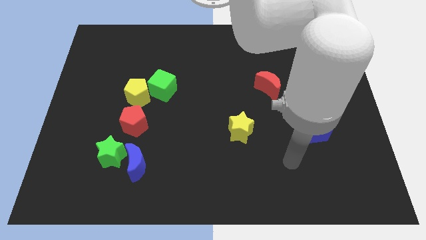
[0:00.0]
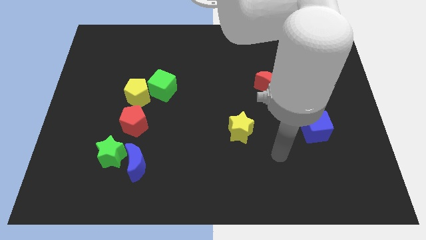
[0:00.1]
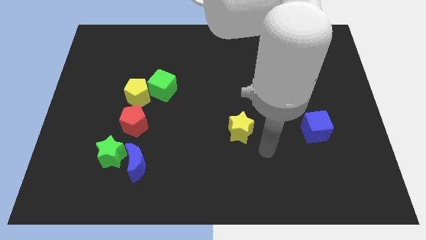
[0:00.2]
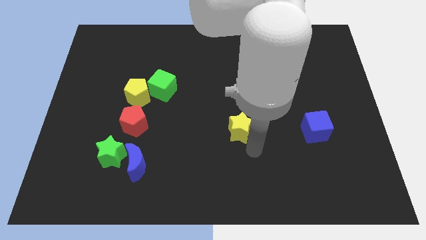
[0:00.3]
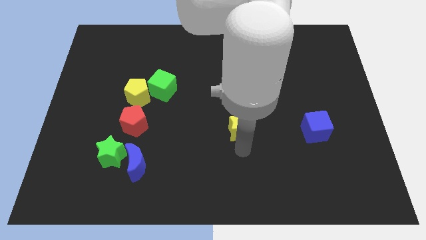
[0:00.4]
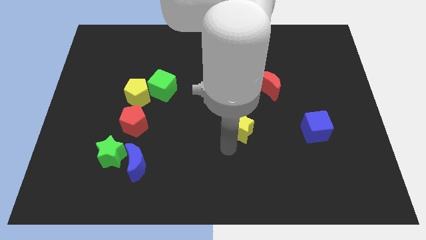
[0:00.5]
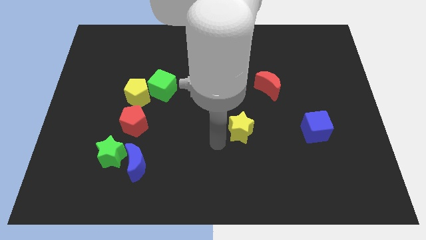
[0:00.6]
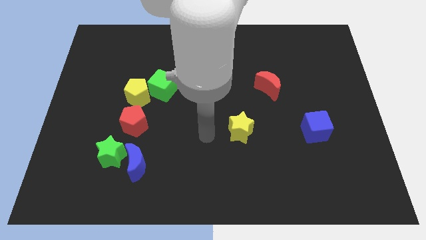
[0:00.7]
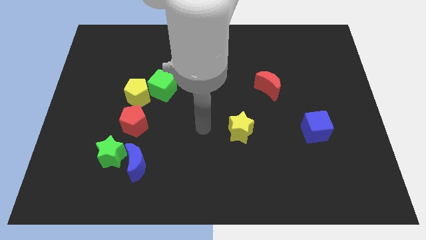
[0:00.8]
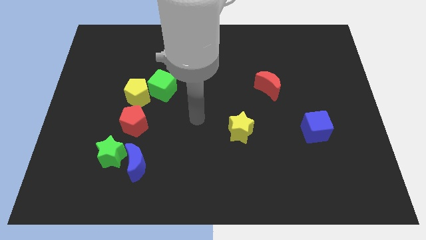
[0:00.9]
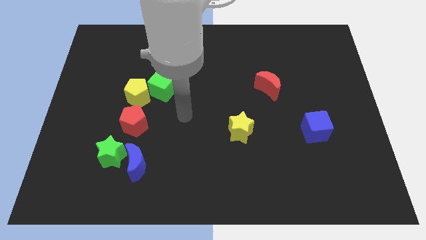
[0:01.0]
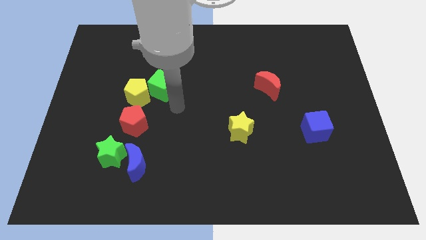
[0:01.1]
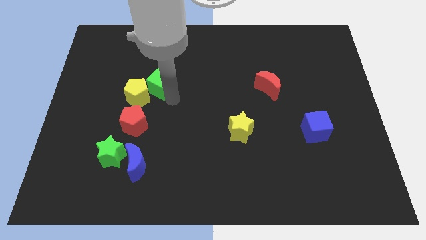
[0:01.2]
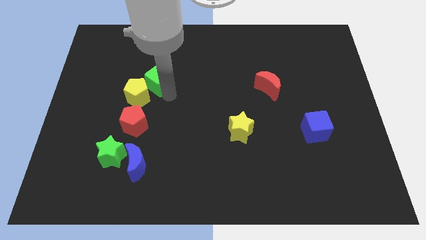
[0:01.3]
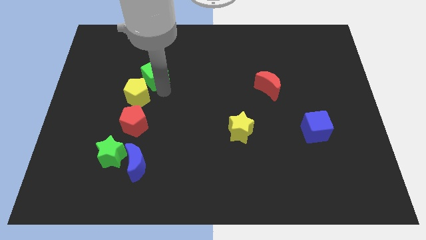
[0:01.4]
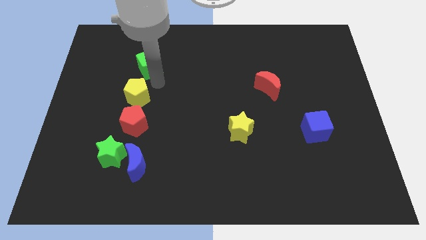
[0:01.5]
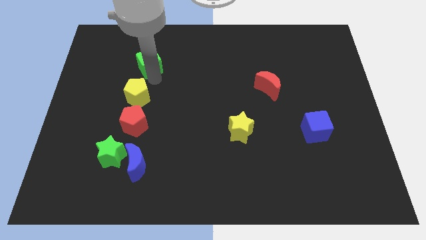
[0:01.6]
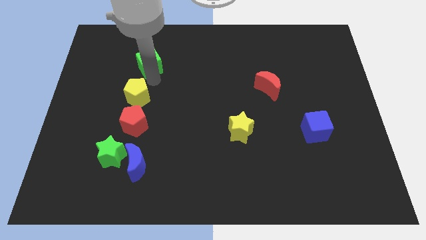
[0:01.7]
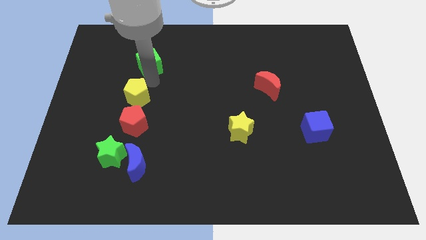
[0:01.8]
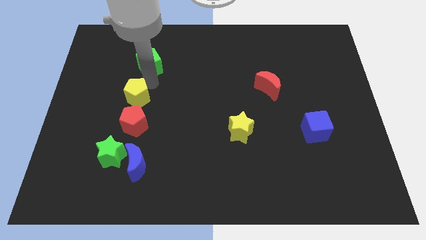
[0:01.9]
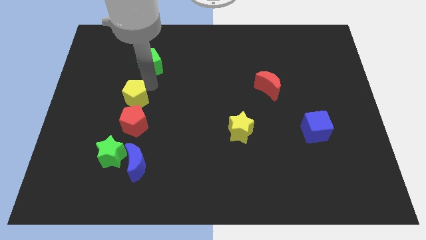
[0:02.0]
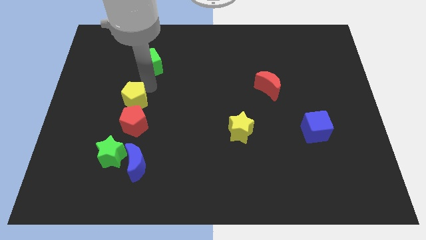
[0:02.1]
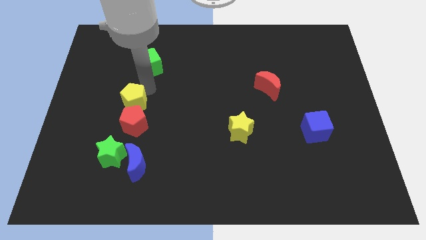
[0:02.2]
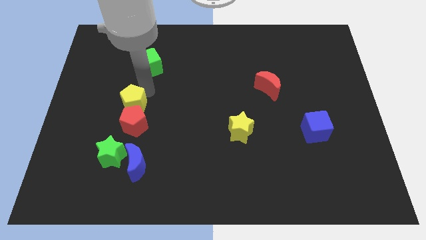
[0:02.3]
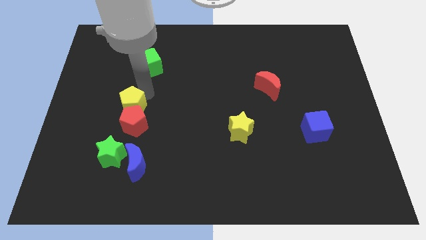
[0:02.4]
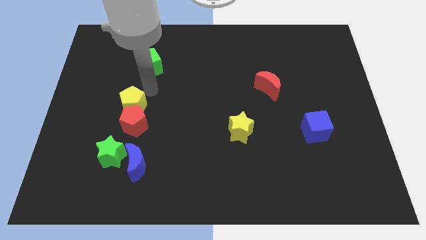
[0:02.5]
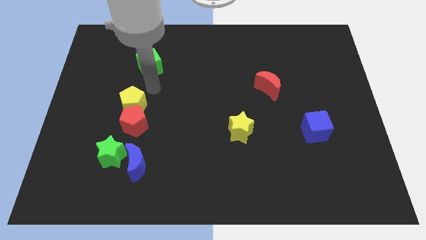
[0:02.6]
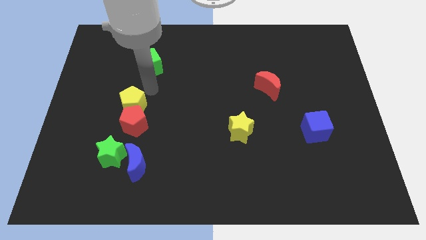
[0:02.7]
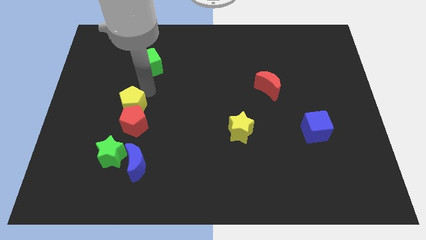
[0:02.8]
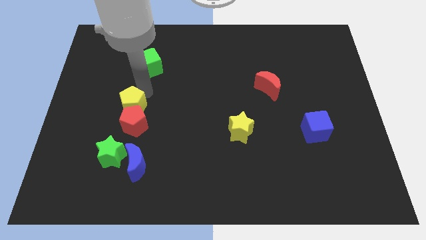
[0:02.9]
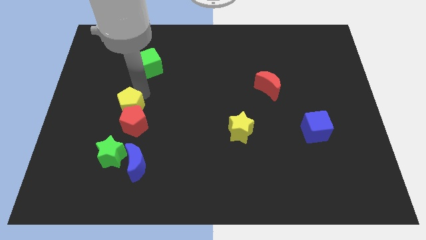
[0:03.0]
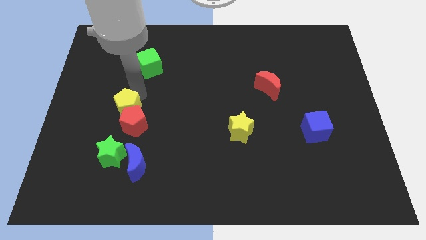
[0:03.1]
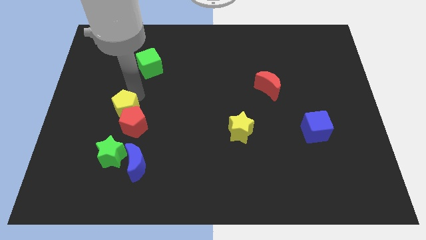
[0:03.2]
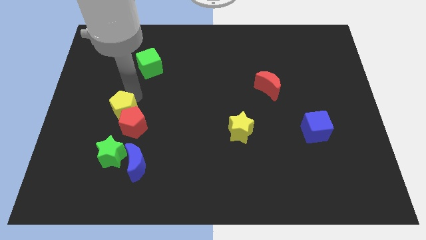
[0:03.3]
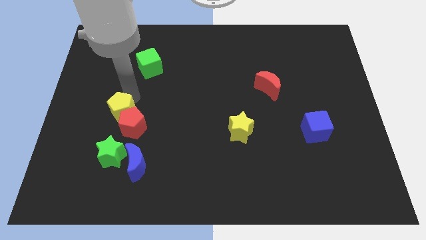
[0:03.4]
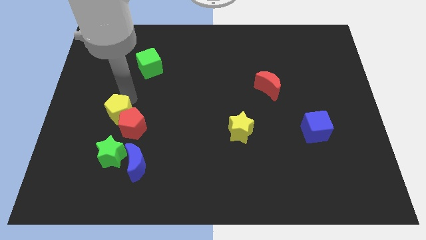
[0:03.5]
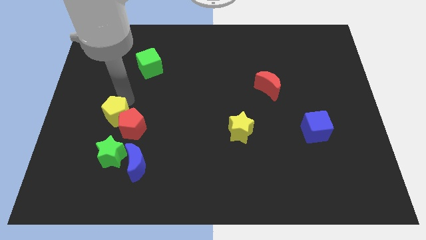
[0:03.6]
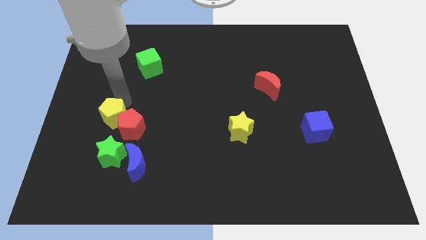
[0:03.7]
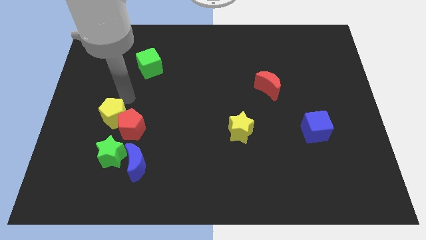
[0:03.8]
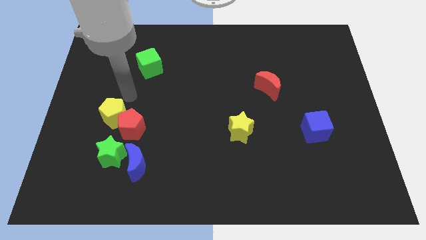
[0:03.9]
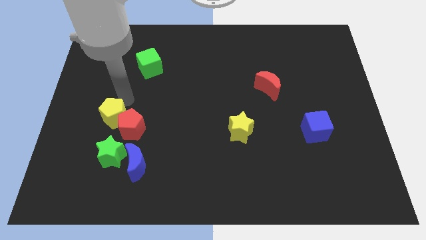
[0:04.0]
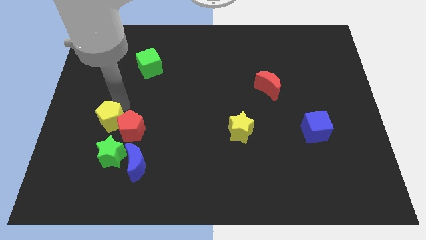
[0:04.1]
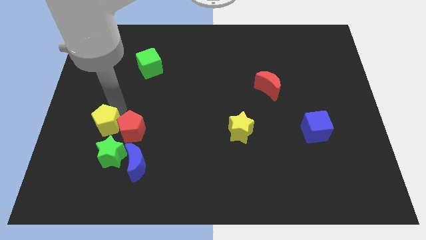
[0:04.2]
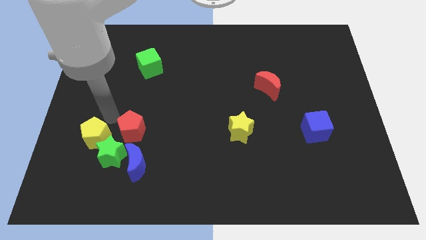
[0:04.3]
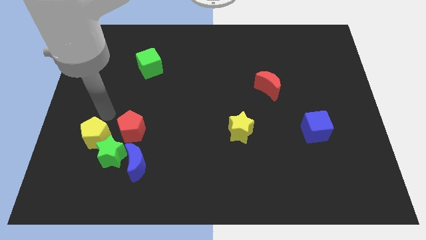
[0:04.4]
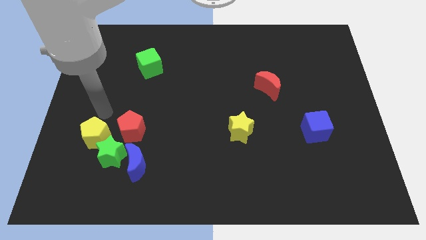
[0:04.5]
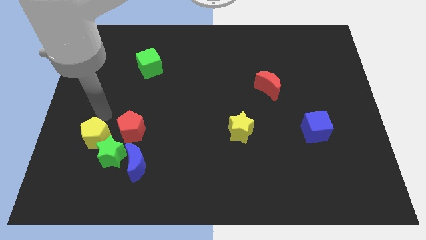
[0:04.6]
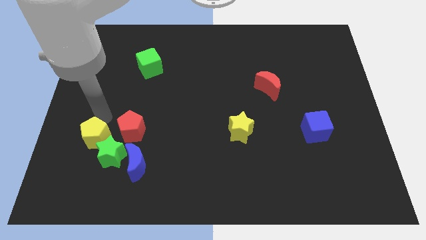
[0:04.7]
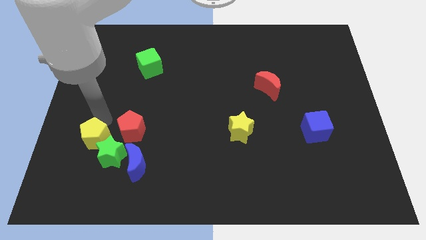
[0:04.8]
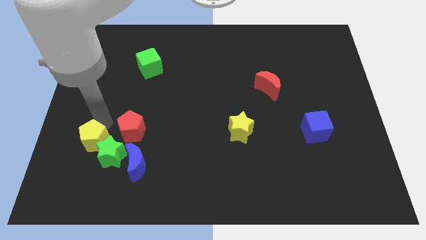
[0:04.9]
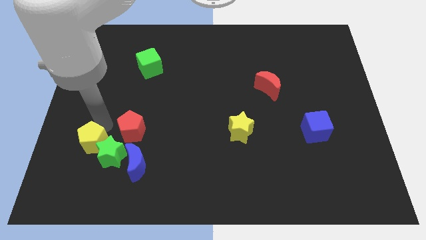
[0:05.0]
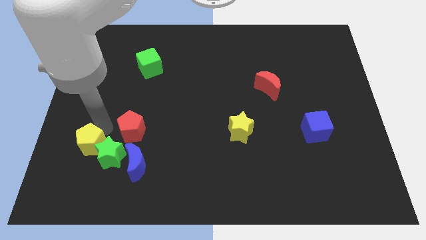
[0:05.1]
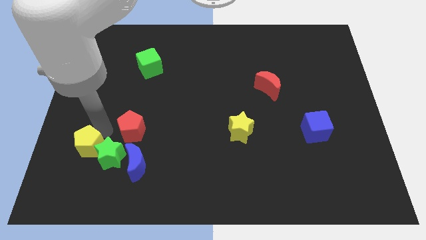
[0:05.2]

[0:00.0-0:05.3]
move the yellow pentagon just left of the blue moon

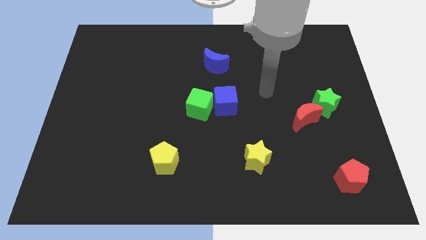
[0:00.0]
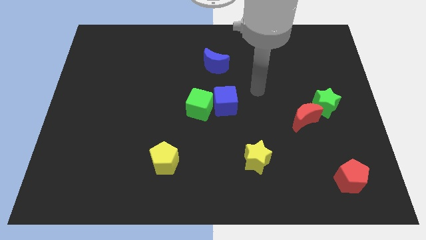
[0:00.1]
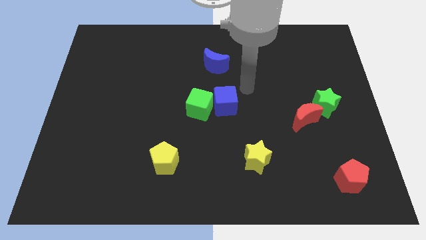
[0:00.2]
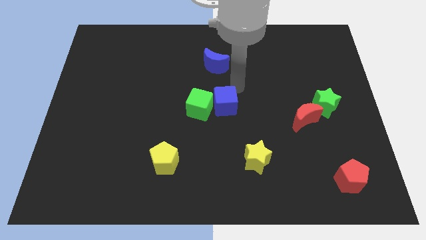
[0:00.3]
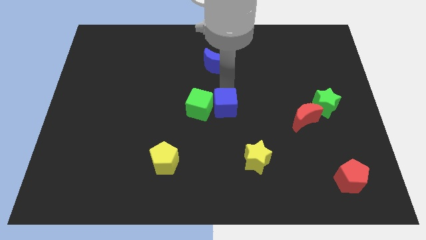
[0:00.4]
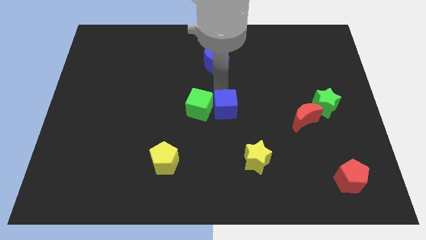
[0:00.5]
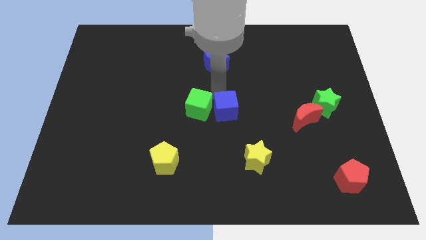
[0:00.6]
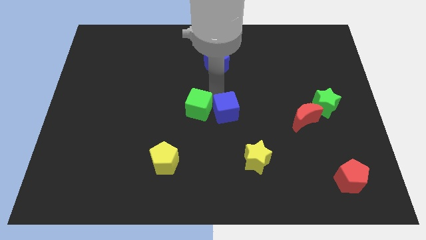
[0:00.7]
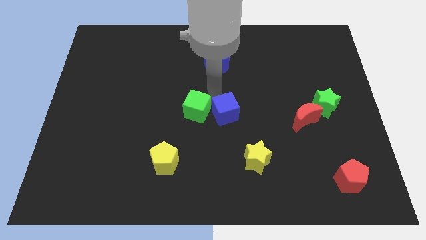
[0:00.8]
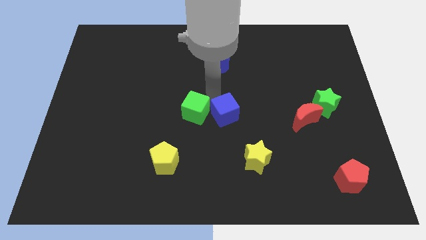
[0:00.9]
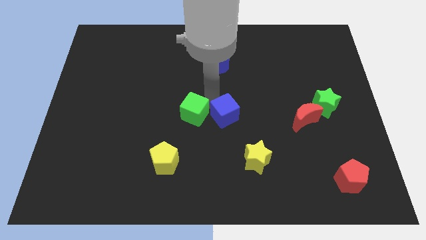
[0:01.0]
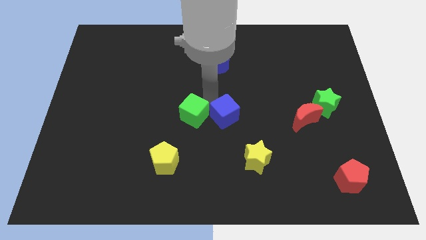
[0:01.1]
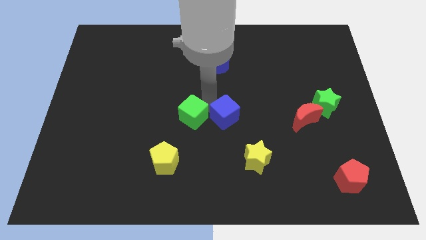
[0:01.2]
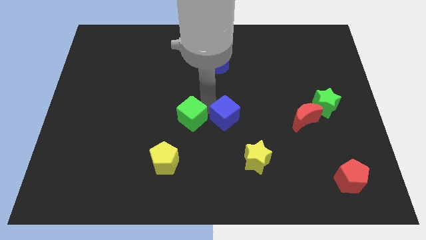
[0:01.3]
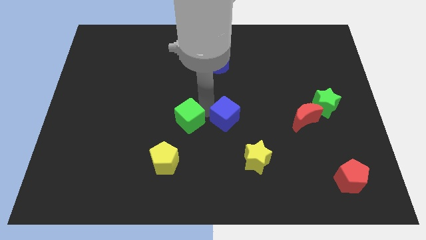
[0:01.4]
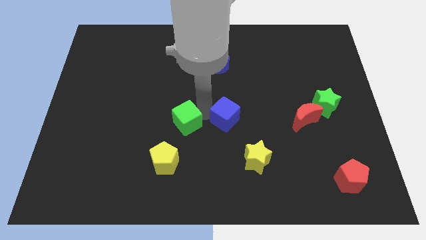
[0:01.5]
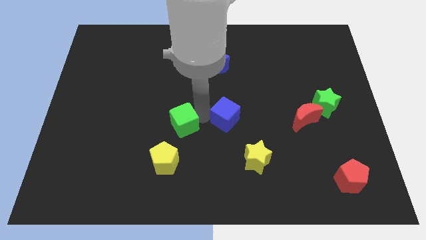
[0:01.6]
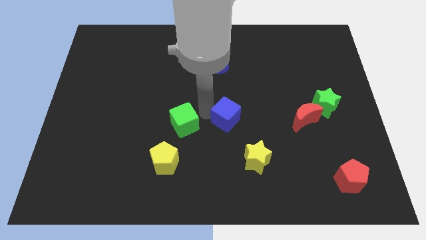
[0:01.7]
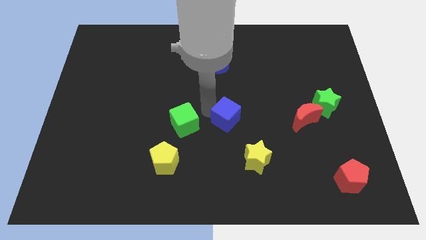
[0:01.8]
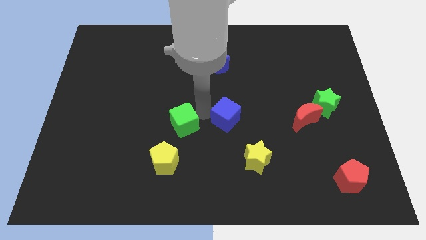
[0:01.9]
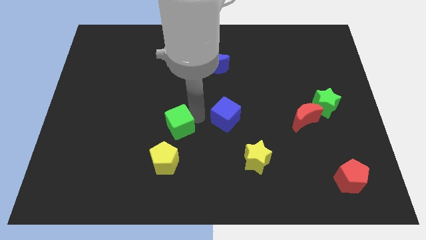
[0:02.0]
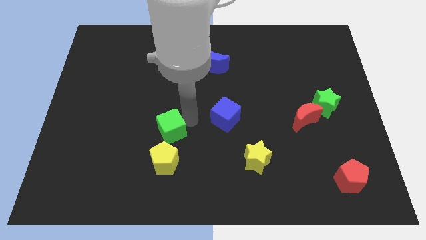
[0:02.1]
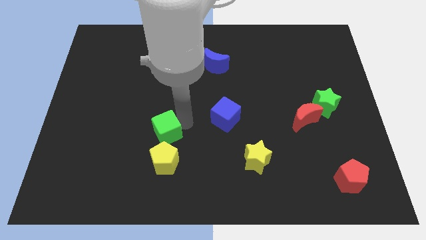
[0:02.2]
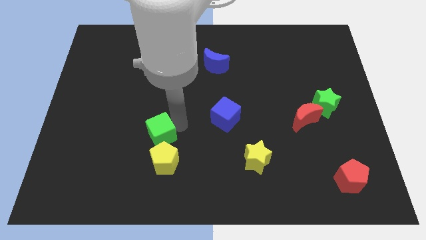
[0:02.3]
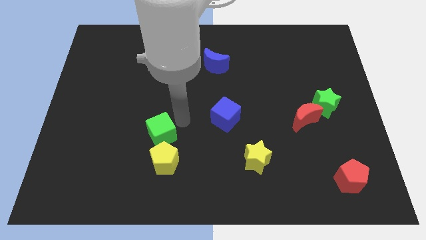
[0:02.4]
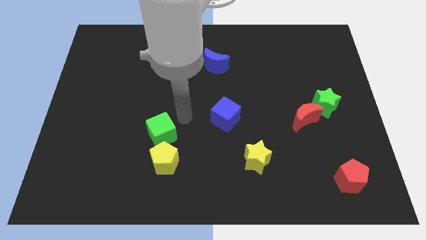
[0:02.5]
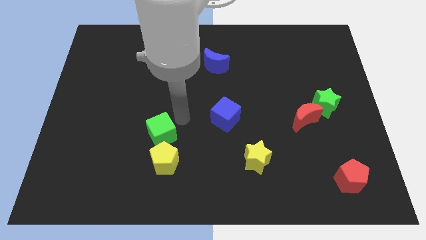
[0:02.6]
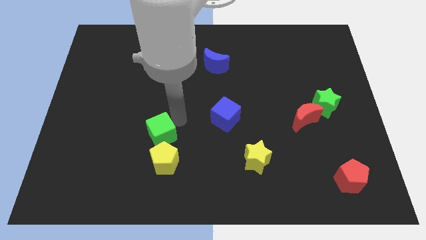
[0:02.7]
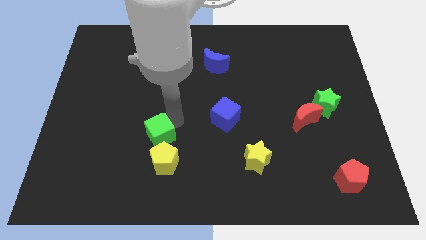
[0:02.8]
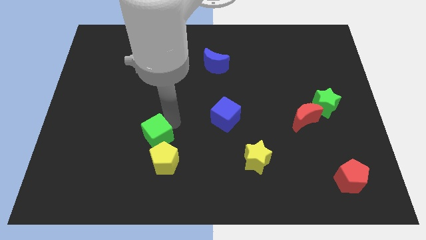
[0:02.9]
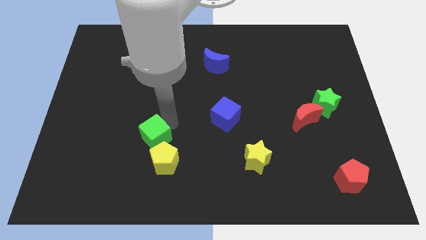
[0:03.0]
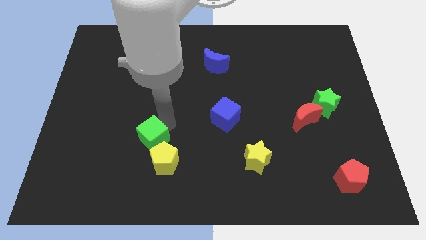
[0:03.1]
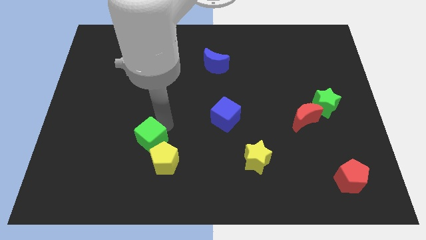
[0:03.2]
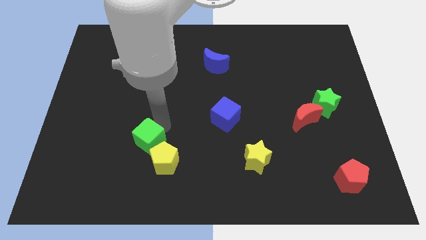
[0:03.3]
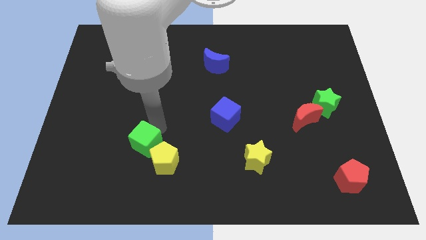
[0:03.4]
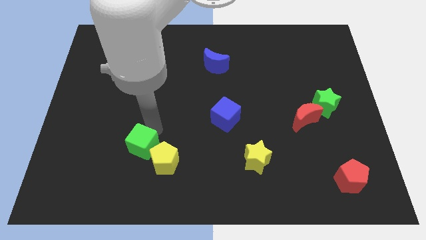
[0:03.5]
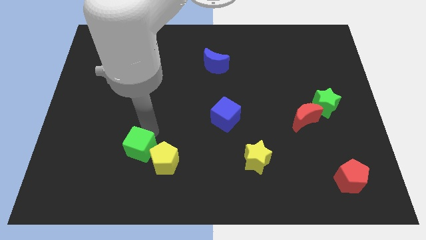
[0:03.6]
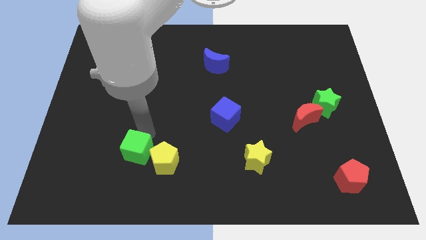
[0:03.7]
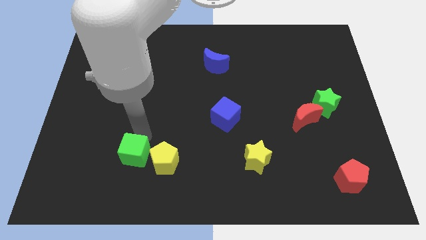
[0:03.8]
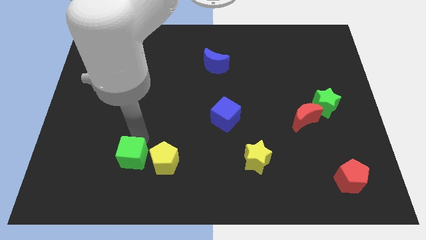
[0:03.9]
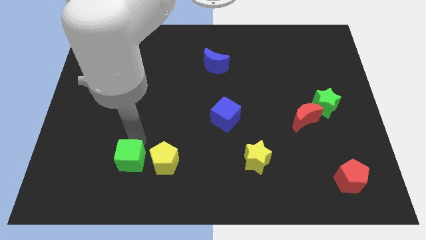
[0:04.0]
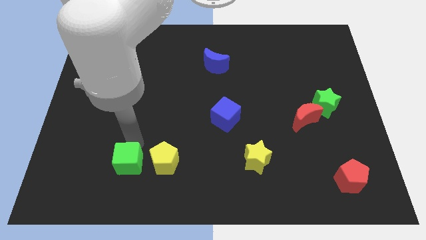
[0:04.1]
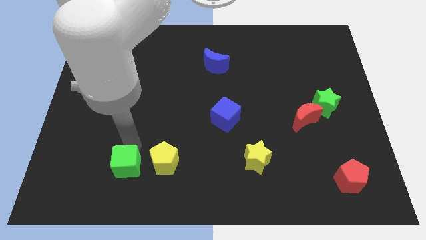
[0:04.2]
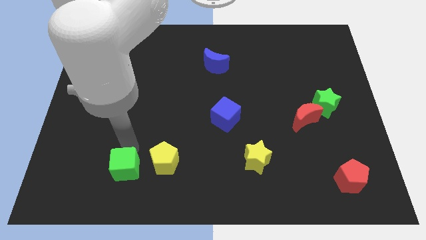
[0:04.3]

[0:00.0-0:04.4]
move the green cube diagonally down and to the left of the yellow pentagon
